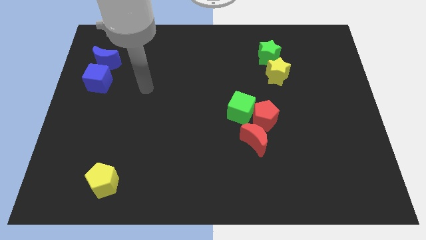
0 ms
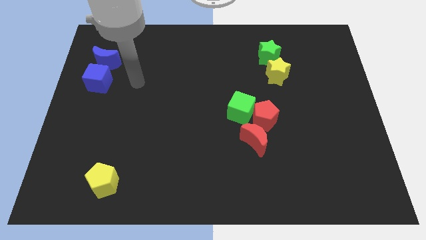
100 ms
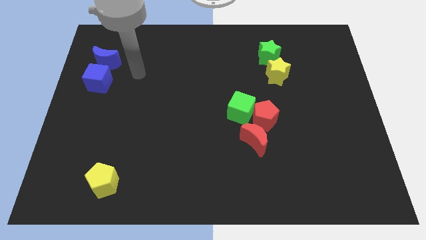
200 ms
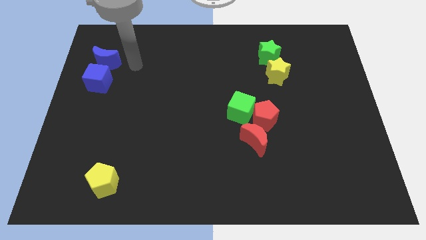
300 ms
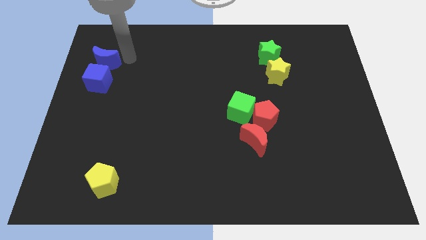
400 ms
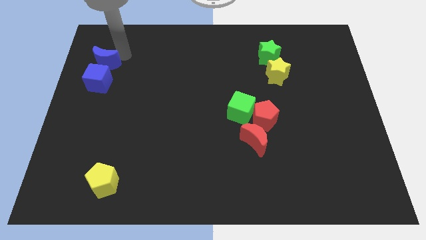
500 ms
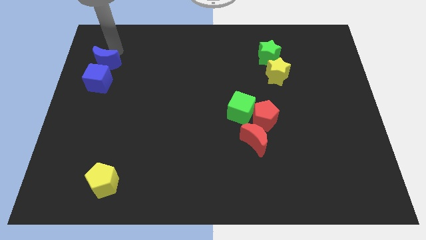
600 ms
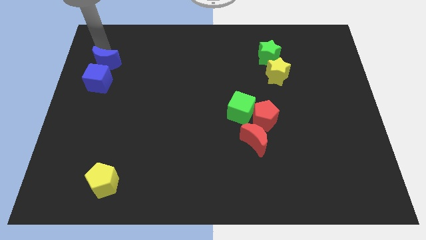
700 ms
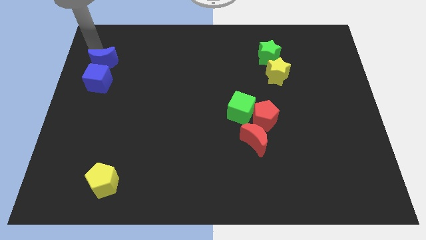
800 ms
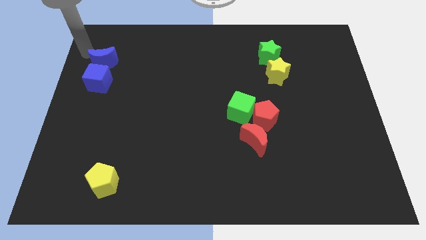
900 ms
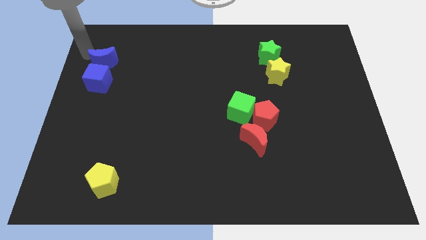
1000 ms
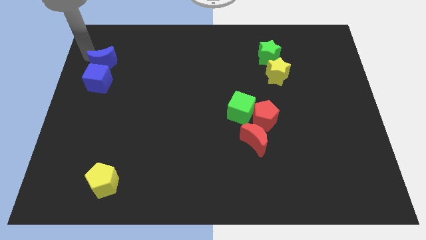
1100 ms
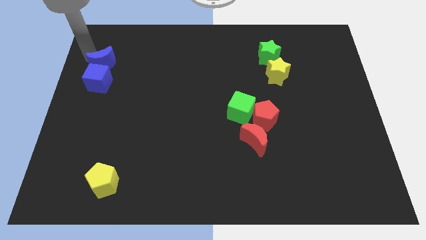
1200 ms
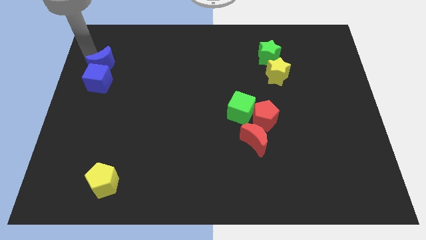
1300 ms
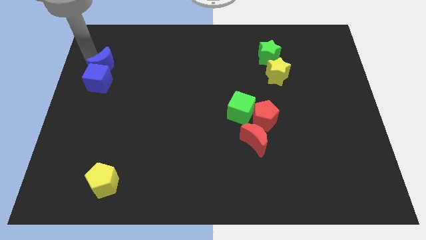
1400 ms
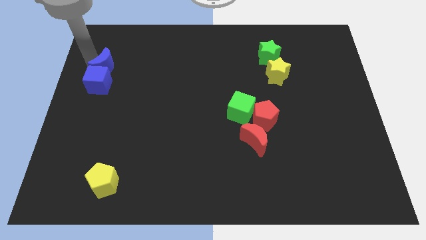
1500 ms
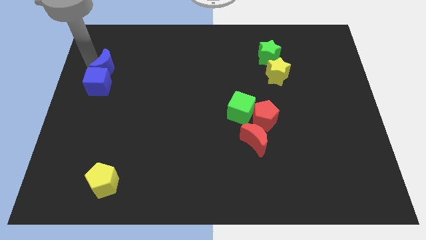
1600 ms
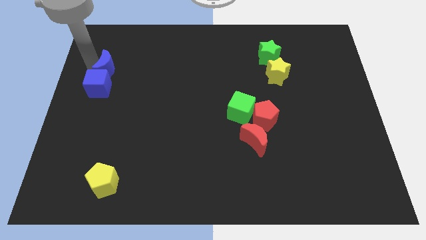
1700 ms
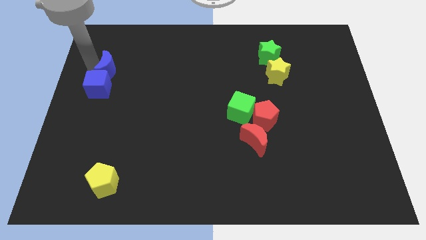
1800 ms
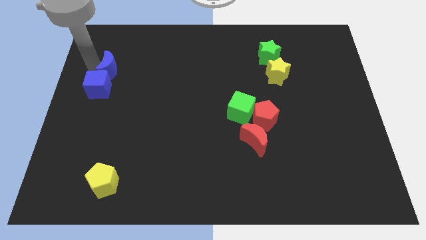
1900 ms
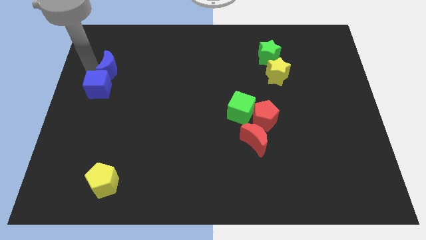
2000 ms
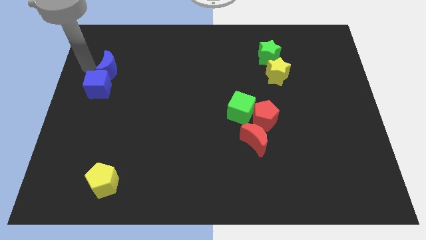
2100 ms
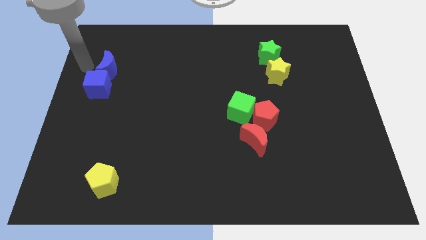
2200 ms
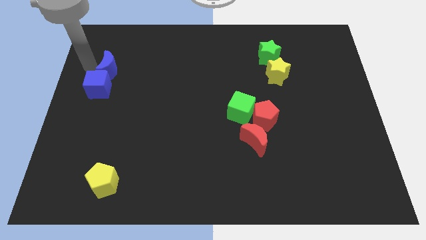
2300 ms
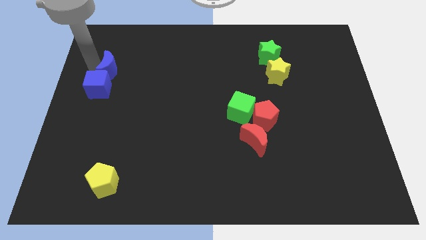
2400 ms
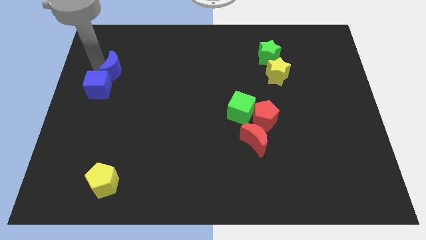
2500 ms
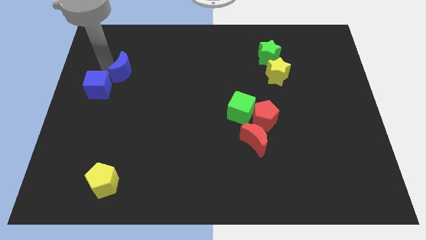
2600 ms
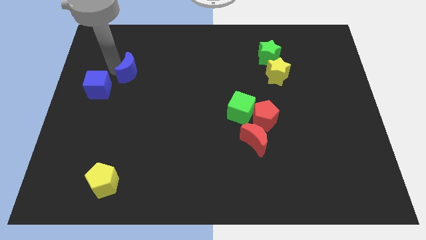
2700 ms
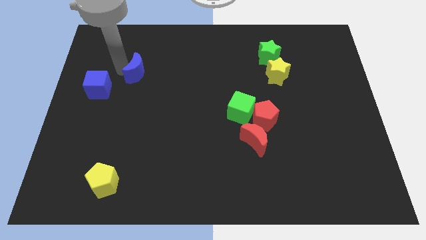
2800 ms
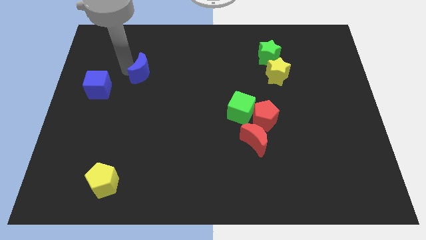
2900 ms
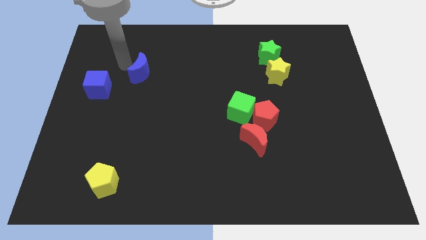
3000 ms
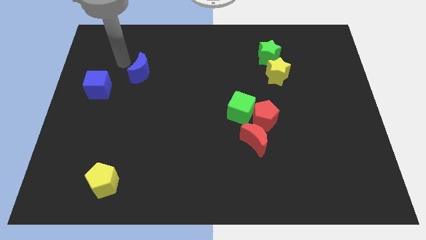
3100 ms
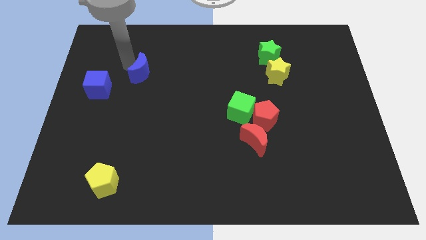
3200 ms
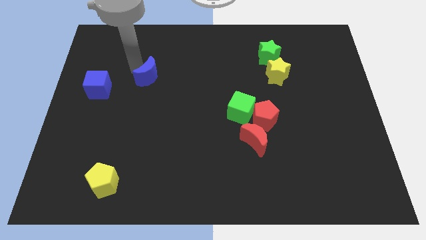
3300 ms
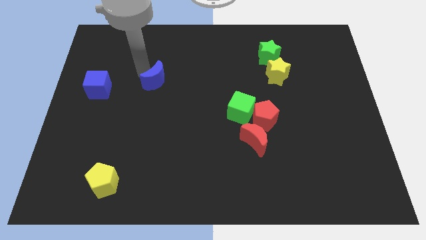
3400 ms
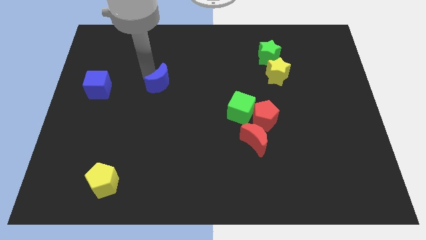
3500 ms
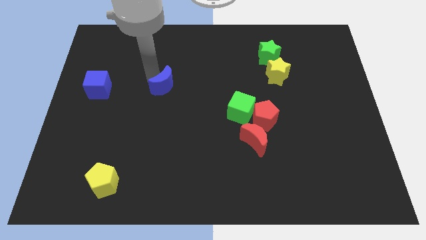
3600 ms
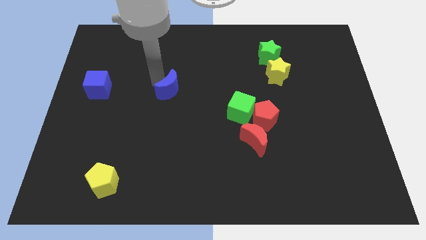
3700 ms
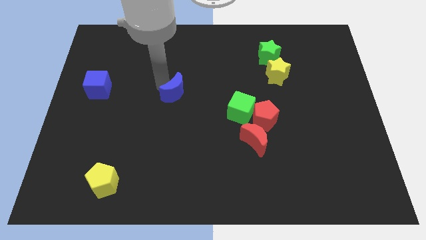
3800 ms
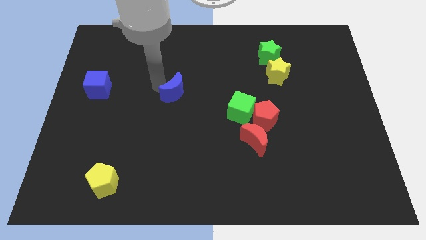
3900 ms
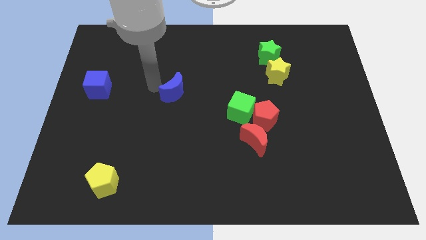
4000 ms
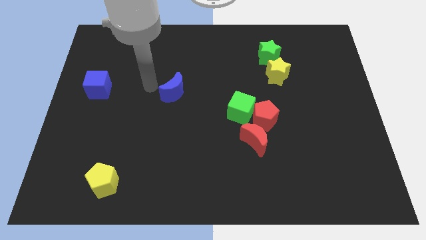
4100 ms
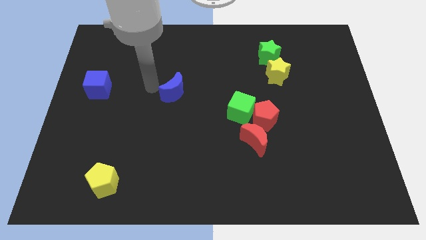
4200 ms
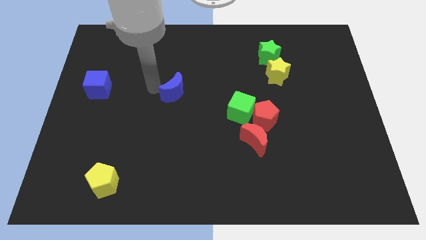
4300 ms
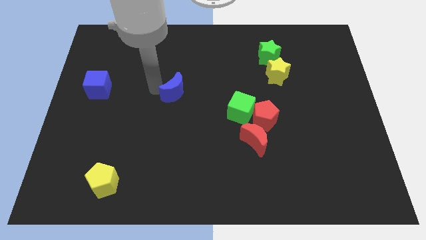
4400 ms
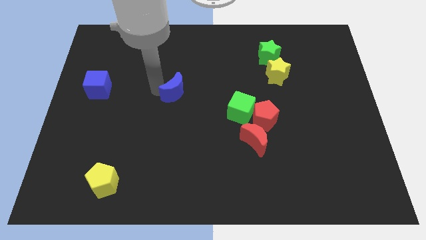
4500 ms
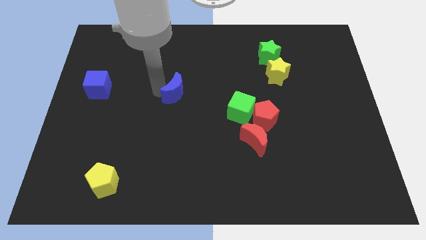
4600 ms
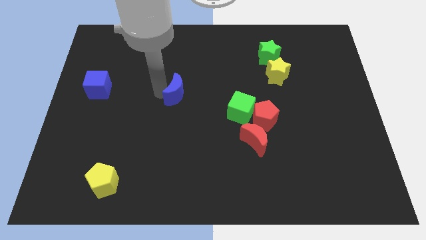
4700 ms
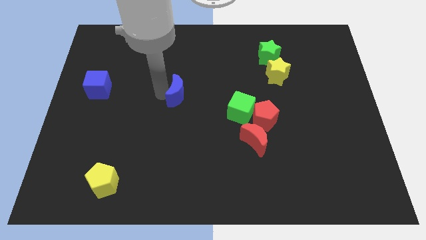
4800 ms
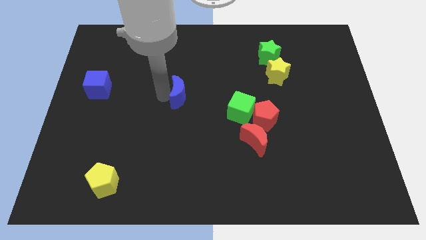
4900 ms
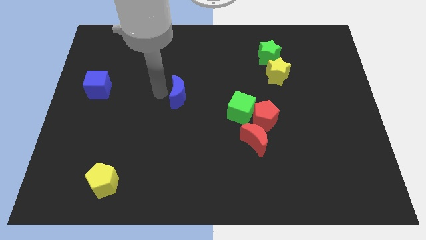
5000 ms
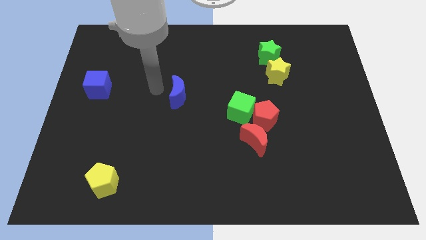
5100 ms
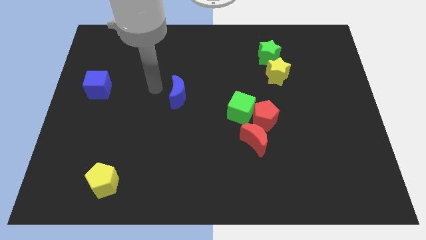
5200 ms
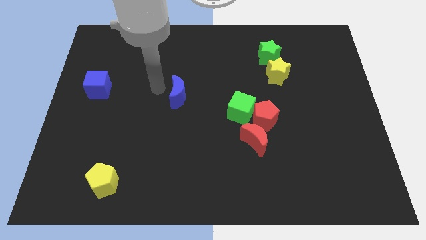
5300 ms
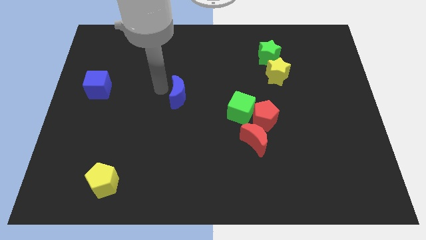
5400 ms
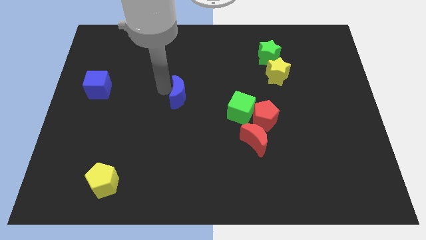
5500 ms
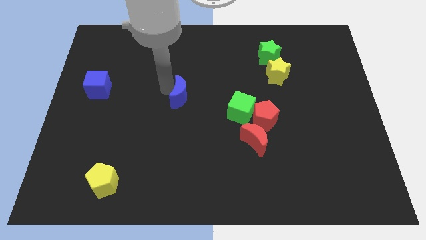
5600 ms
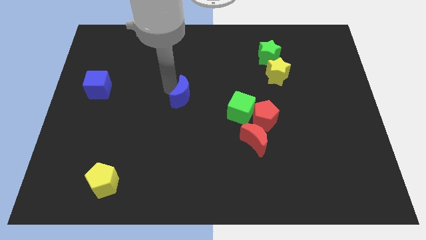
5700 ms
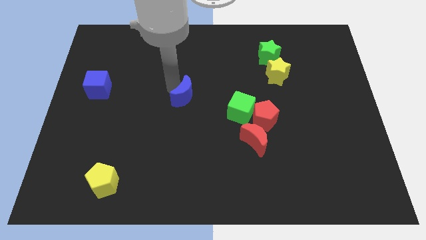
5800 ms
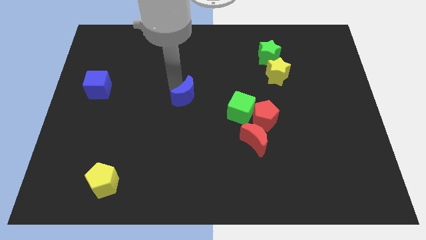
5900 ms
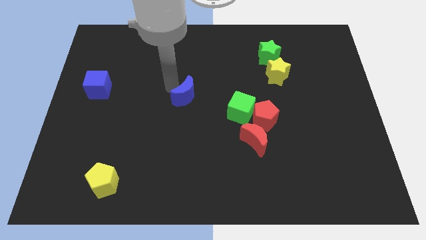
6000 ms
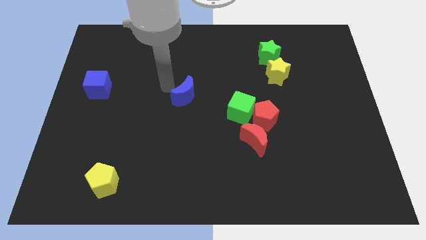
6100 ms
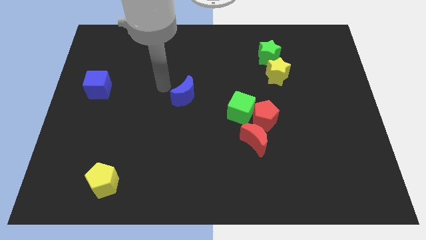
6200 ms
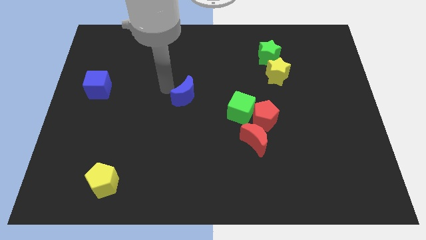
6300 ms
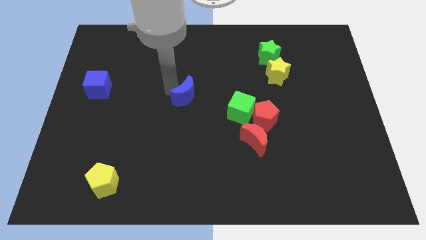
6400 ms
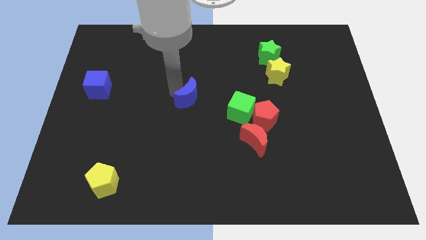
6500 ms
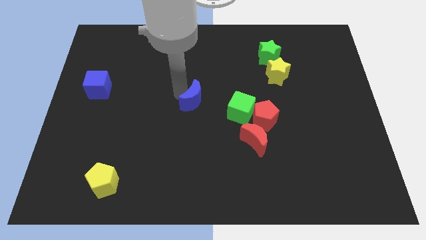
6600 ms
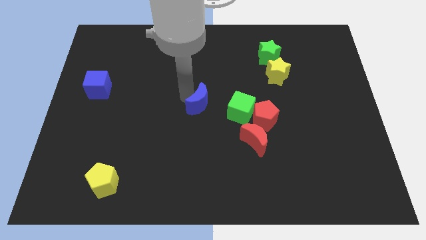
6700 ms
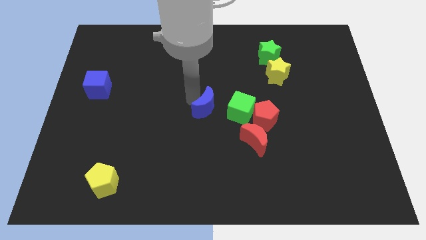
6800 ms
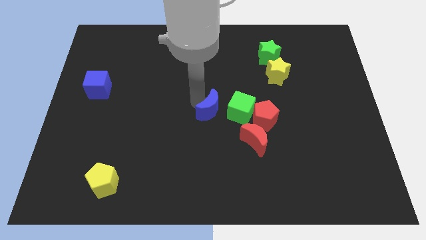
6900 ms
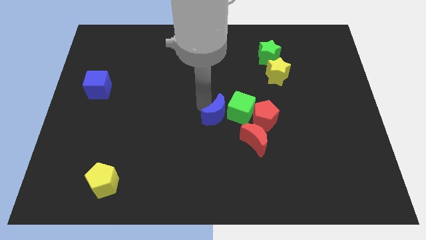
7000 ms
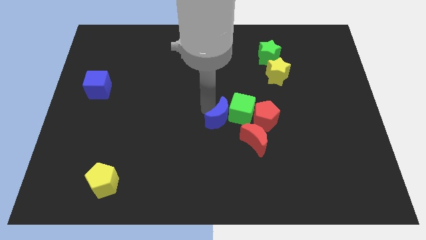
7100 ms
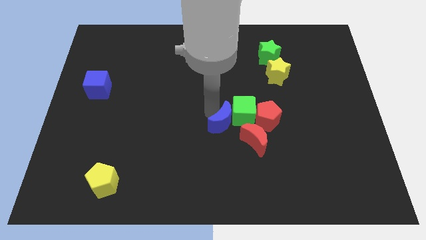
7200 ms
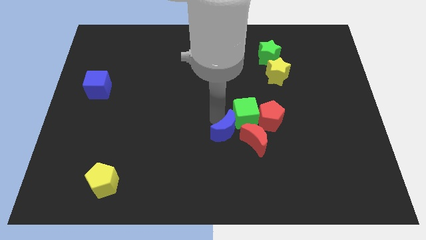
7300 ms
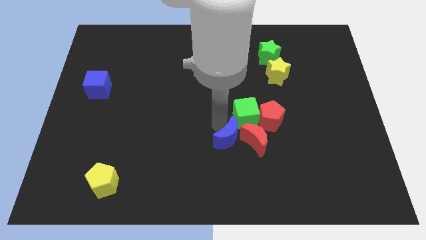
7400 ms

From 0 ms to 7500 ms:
put the blue moon to the red moon
